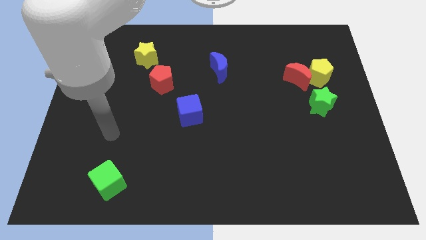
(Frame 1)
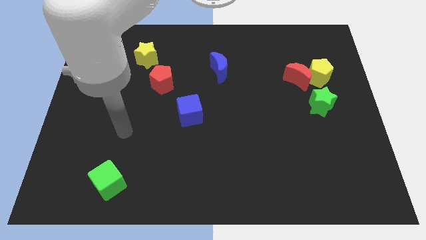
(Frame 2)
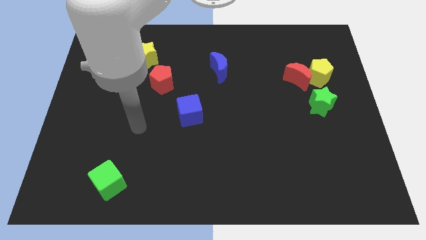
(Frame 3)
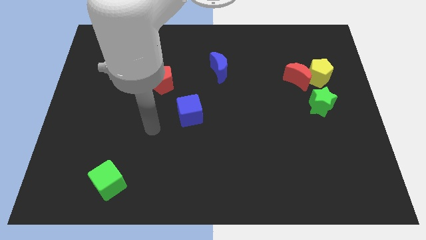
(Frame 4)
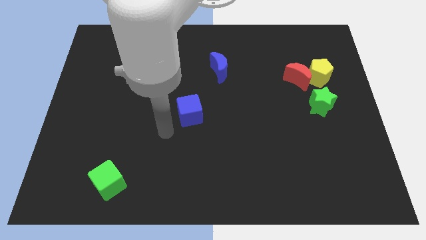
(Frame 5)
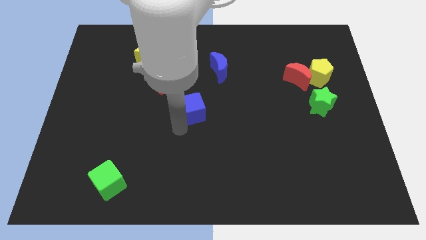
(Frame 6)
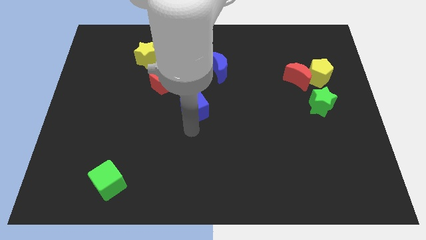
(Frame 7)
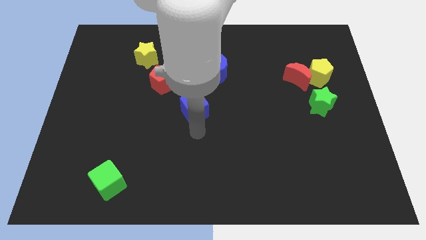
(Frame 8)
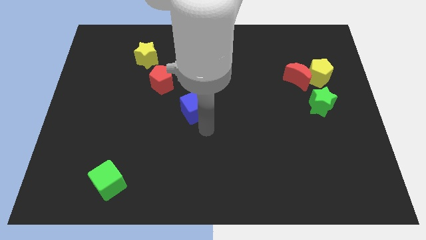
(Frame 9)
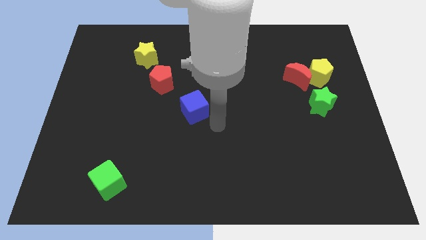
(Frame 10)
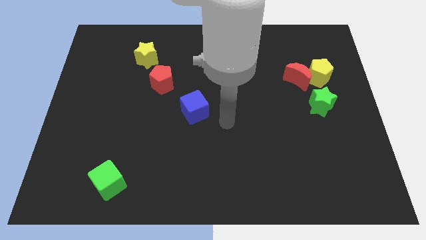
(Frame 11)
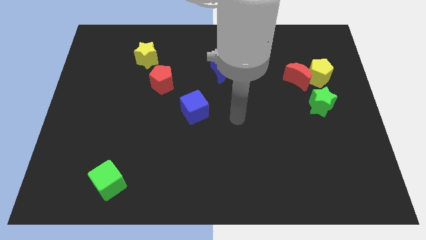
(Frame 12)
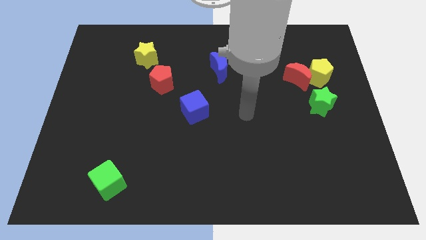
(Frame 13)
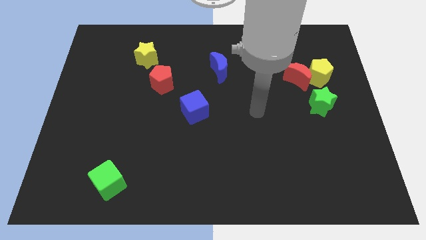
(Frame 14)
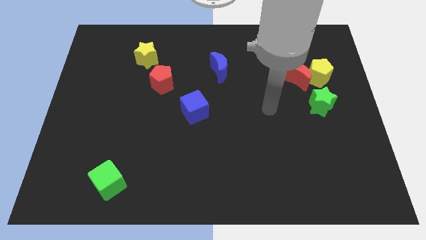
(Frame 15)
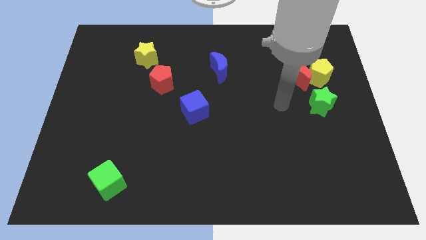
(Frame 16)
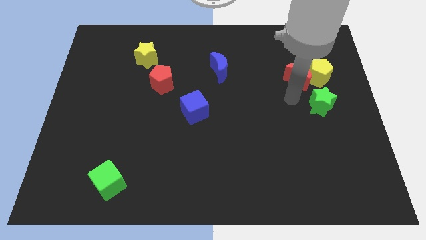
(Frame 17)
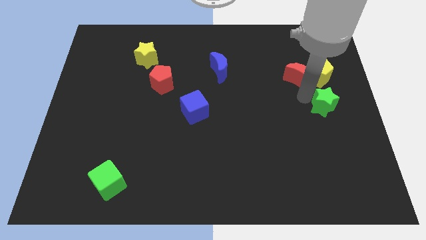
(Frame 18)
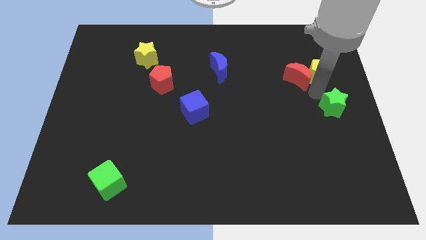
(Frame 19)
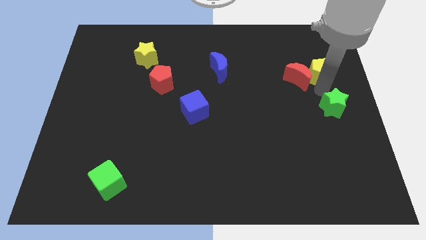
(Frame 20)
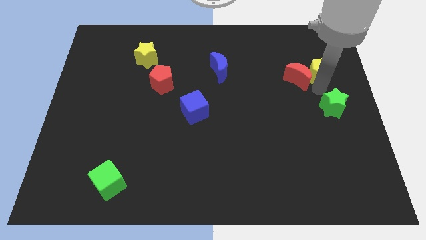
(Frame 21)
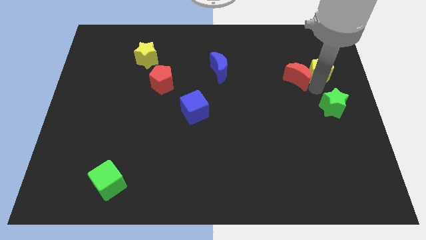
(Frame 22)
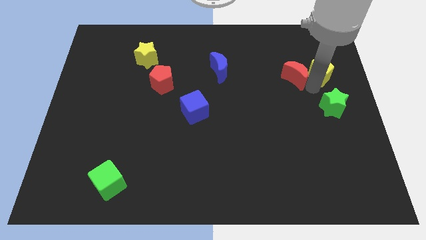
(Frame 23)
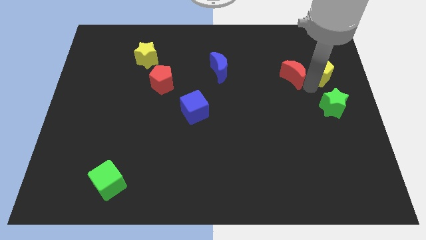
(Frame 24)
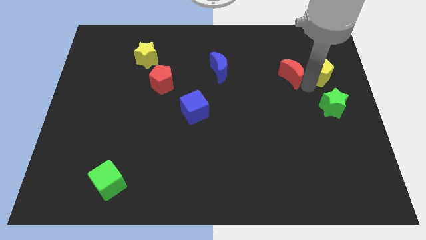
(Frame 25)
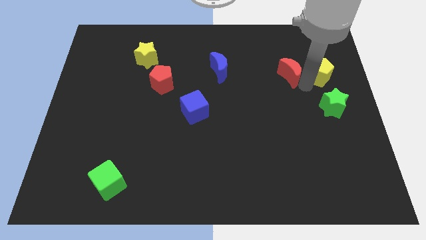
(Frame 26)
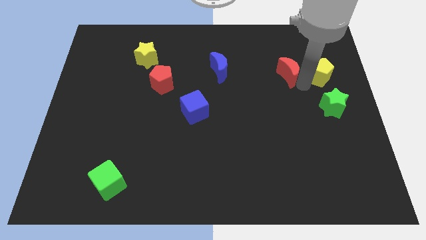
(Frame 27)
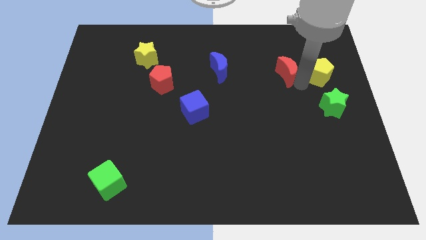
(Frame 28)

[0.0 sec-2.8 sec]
pull the red moon apart from the yellow pentagon and green star

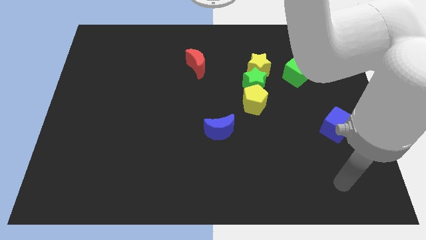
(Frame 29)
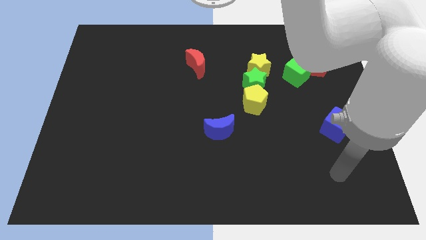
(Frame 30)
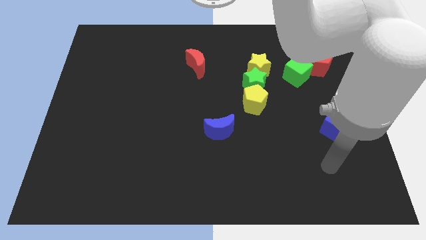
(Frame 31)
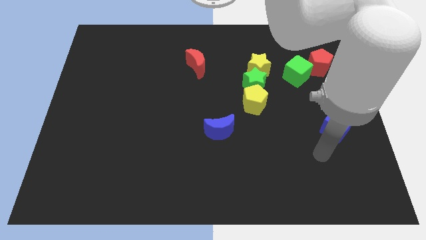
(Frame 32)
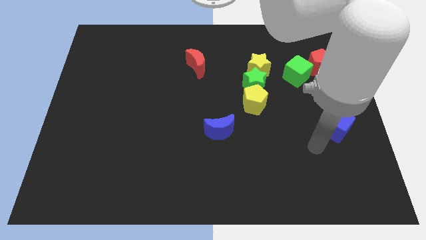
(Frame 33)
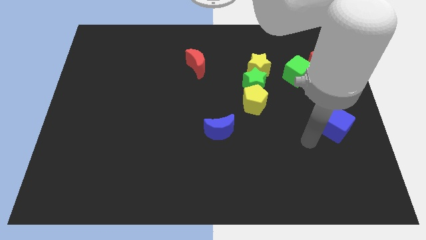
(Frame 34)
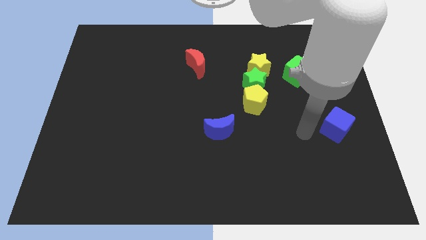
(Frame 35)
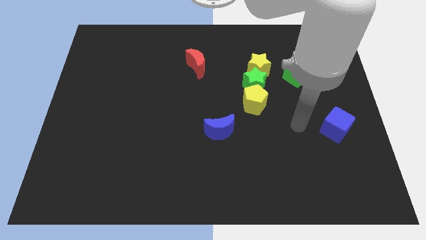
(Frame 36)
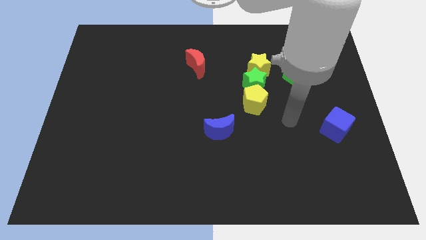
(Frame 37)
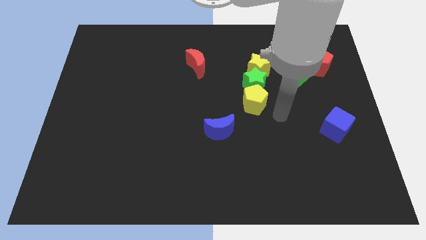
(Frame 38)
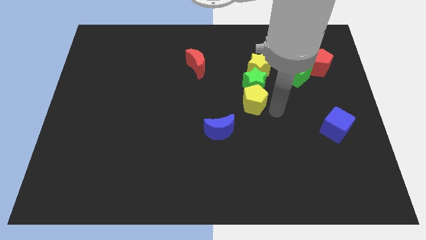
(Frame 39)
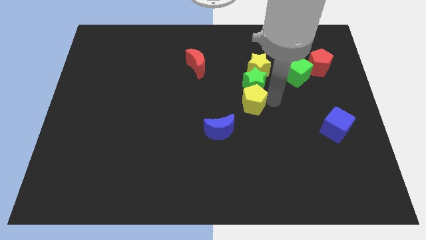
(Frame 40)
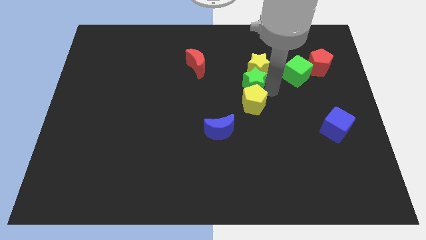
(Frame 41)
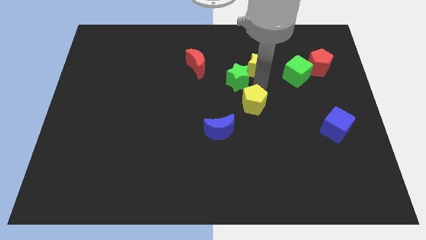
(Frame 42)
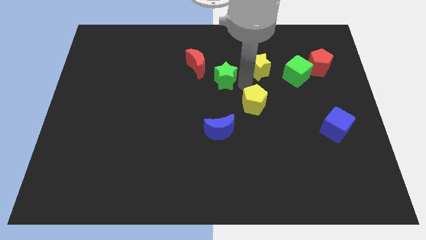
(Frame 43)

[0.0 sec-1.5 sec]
move the yellow pentagon away from the green star

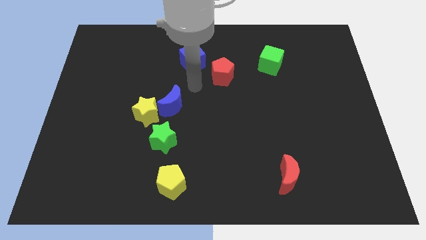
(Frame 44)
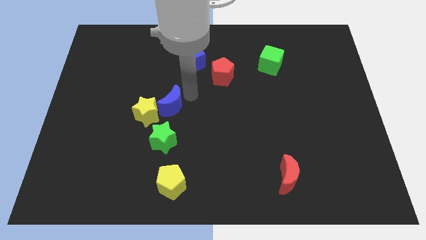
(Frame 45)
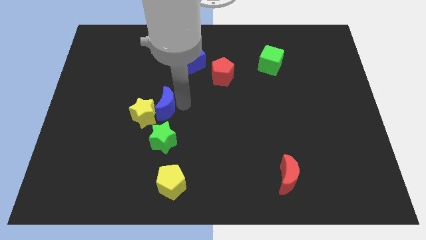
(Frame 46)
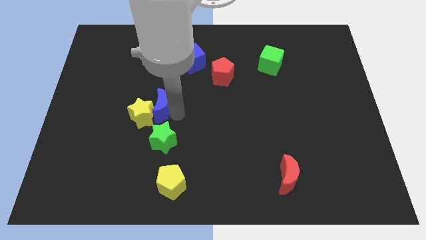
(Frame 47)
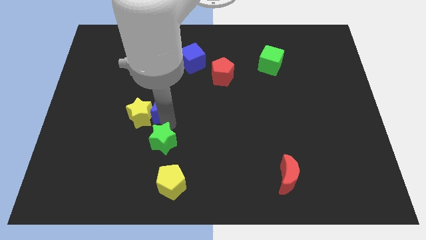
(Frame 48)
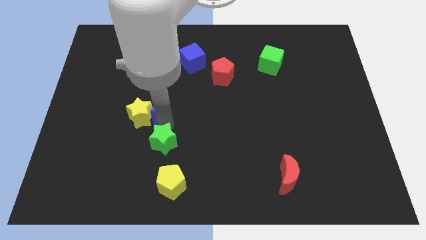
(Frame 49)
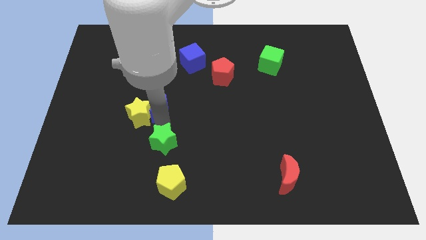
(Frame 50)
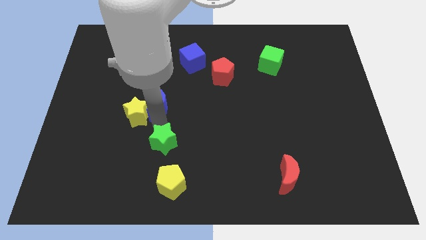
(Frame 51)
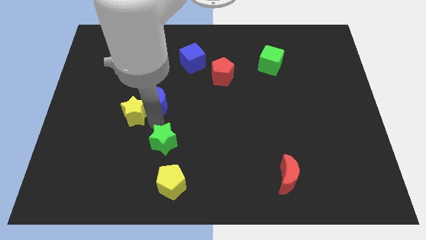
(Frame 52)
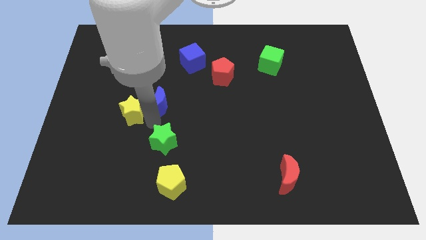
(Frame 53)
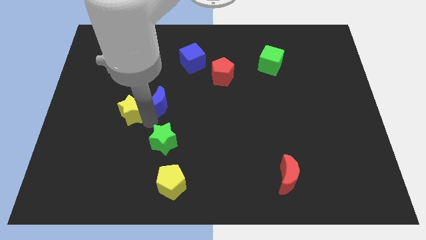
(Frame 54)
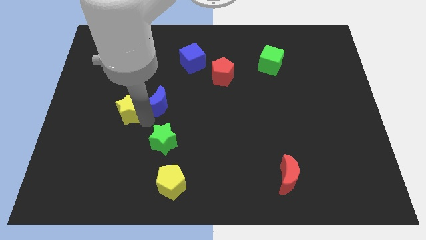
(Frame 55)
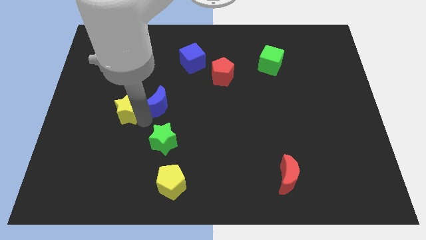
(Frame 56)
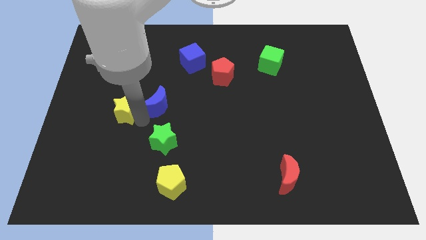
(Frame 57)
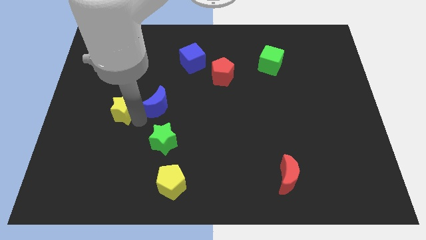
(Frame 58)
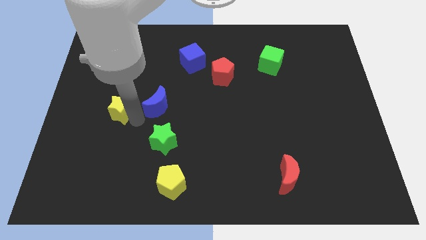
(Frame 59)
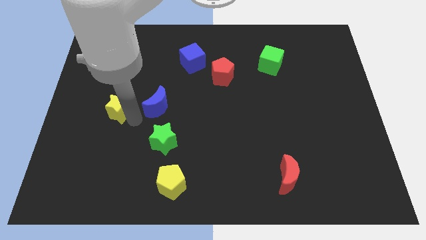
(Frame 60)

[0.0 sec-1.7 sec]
separate the yellow star from the blue moon and green star

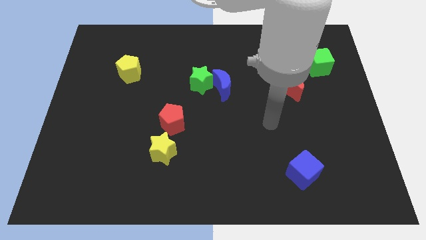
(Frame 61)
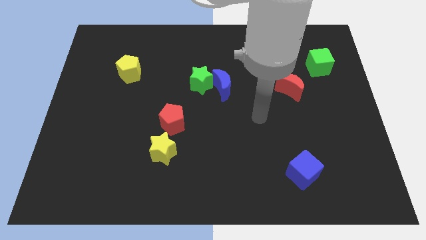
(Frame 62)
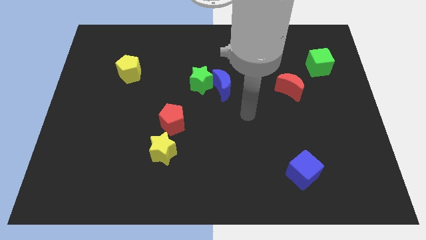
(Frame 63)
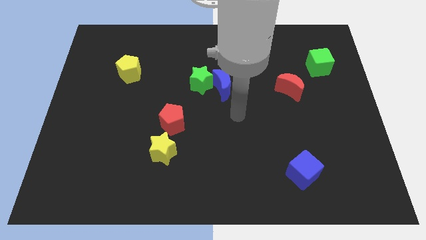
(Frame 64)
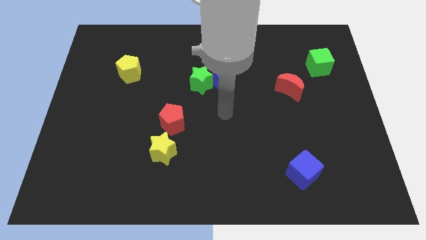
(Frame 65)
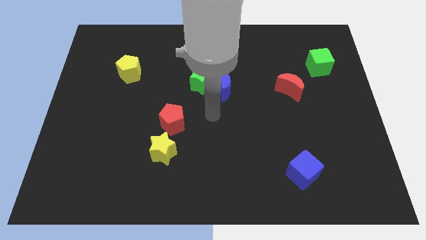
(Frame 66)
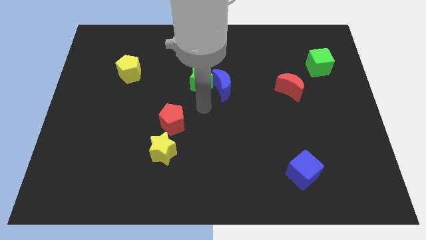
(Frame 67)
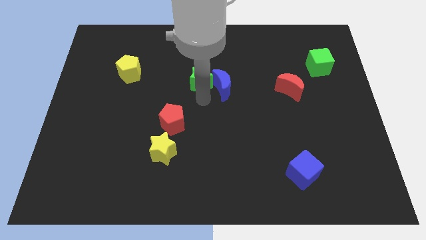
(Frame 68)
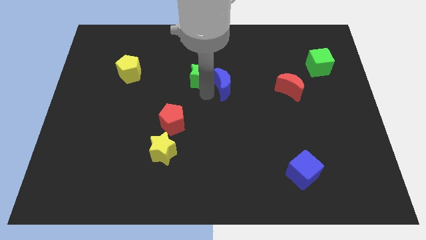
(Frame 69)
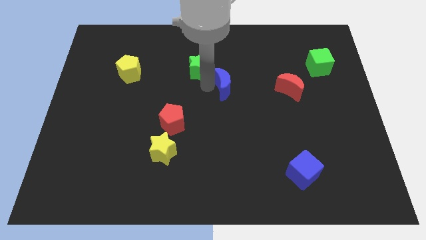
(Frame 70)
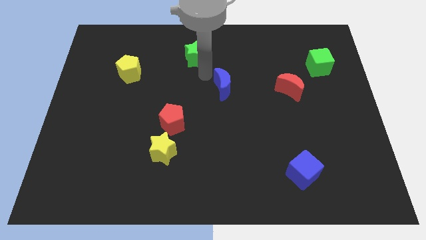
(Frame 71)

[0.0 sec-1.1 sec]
pull the blue moon apart from the green star

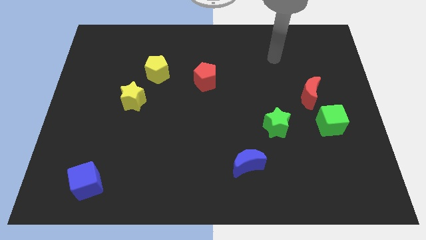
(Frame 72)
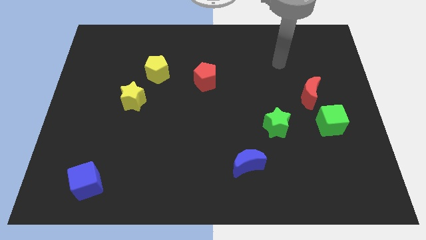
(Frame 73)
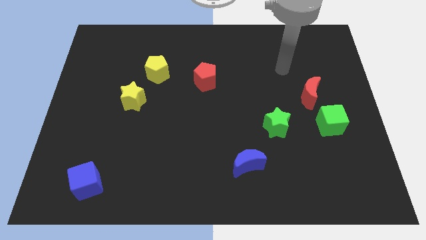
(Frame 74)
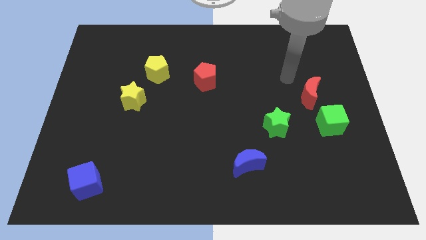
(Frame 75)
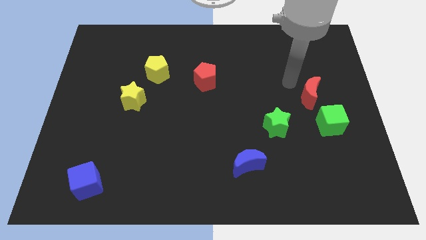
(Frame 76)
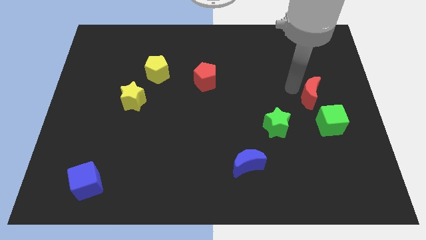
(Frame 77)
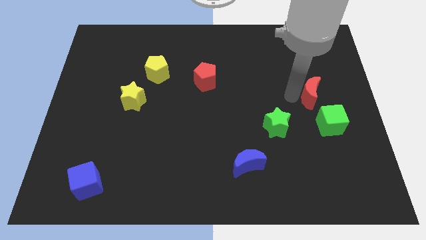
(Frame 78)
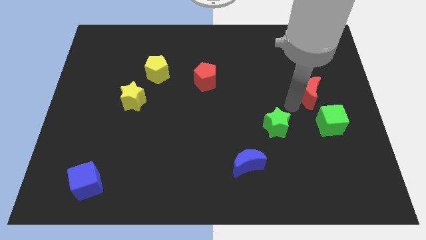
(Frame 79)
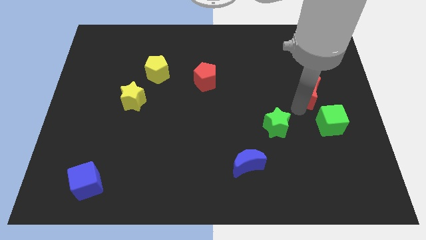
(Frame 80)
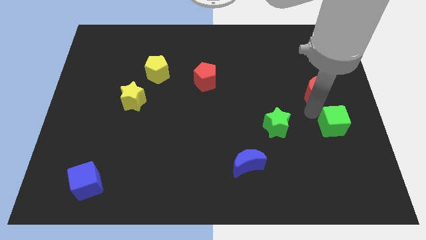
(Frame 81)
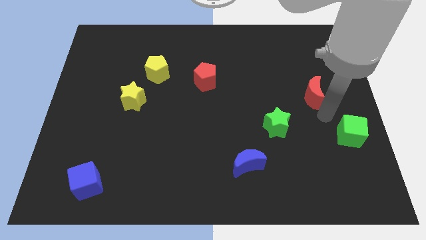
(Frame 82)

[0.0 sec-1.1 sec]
separate the red moon from the green cube

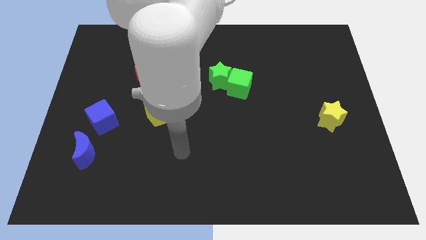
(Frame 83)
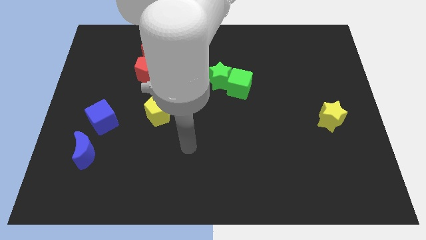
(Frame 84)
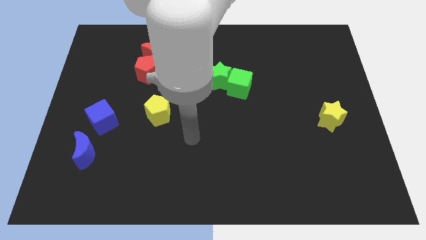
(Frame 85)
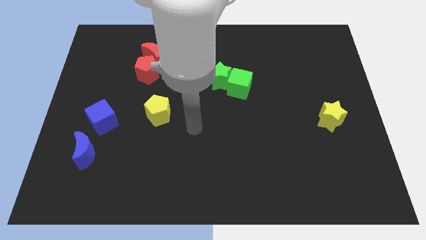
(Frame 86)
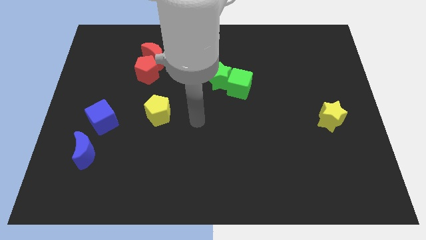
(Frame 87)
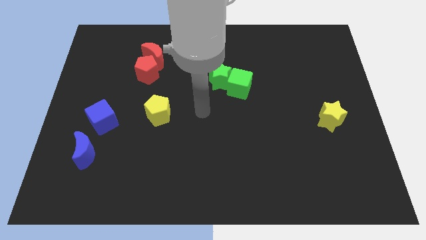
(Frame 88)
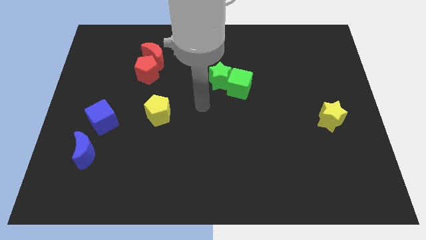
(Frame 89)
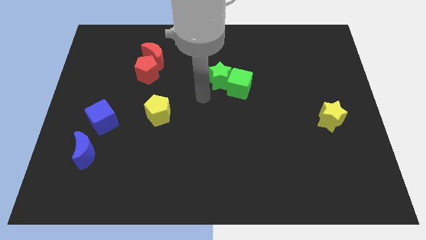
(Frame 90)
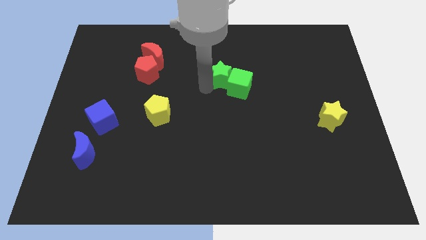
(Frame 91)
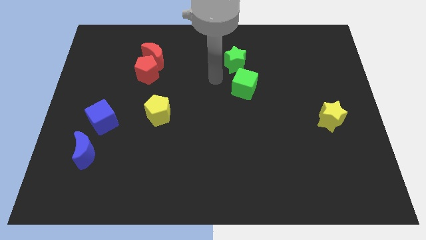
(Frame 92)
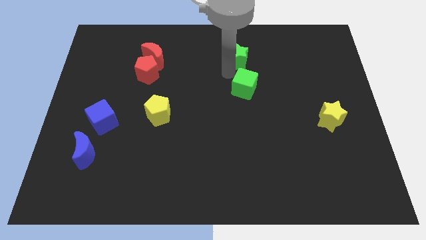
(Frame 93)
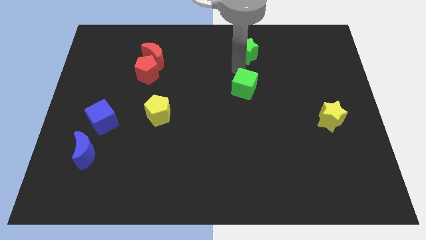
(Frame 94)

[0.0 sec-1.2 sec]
separate the green cube from the green star
